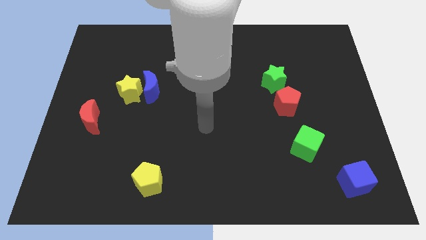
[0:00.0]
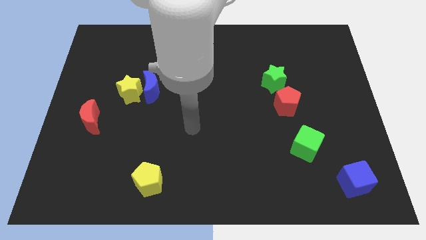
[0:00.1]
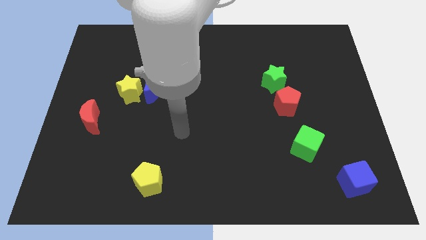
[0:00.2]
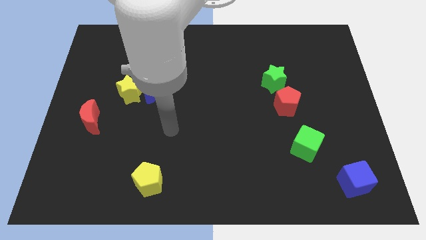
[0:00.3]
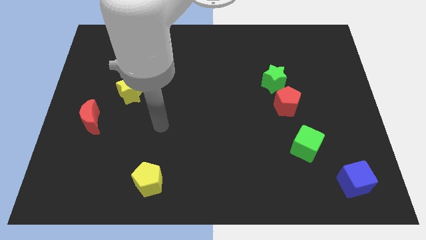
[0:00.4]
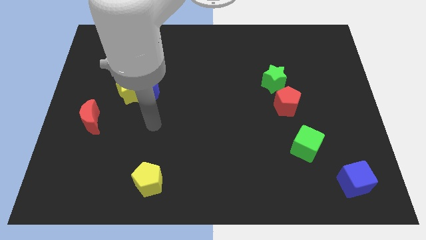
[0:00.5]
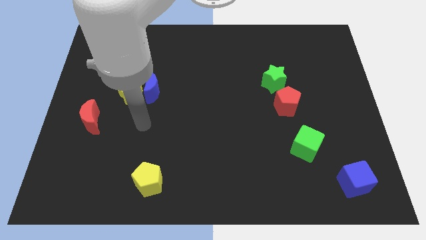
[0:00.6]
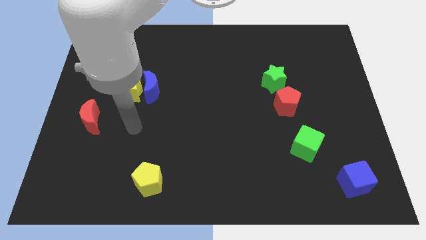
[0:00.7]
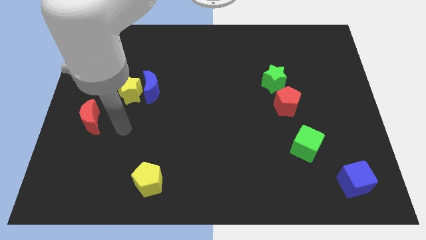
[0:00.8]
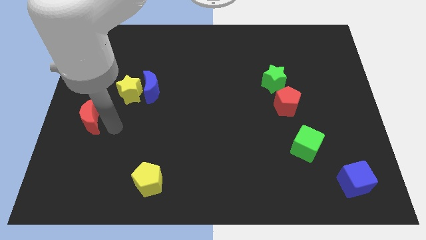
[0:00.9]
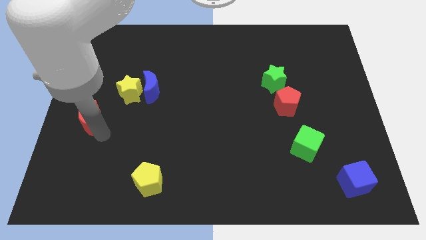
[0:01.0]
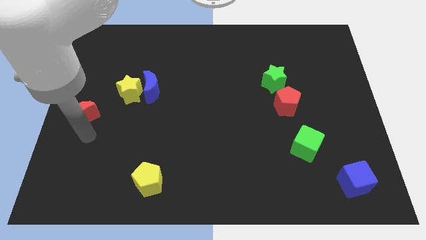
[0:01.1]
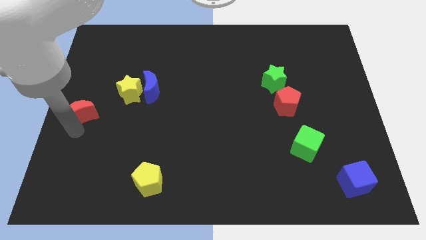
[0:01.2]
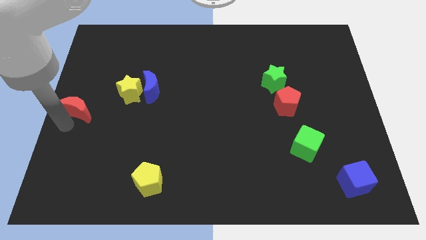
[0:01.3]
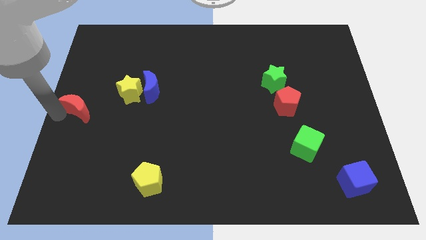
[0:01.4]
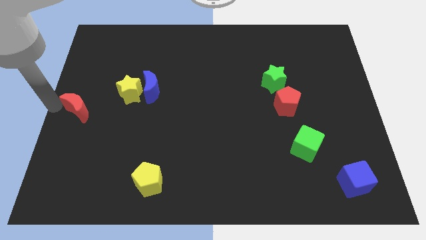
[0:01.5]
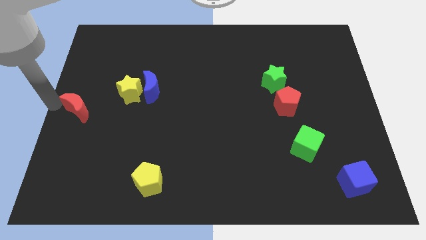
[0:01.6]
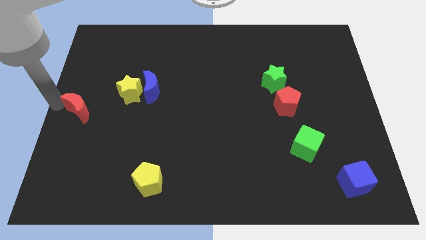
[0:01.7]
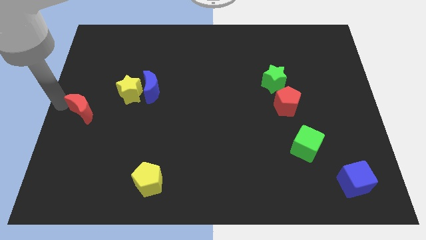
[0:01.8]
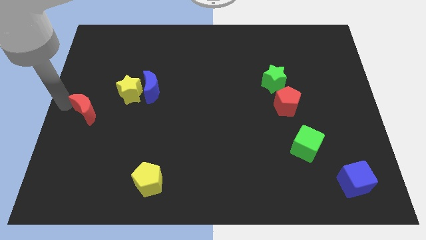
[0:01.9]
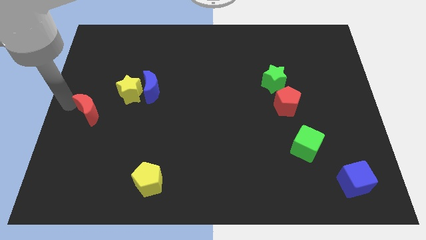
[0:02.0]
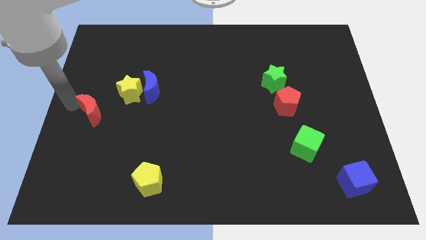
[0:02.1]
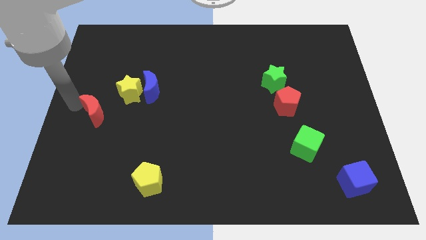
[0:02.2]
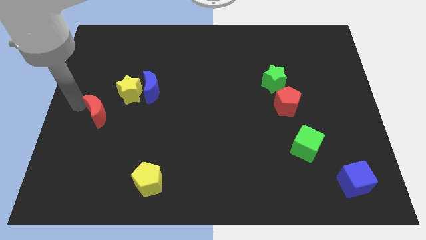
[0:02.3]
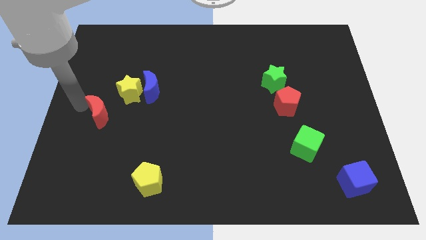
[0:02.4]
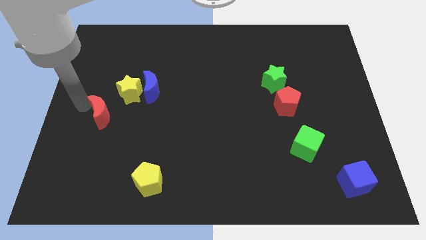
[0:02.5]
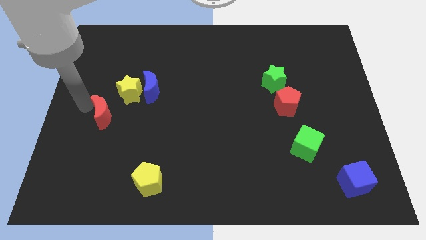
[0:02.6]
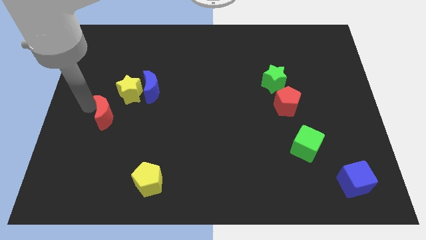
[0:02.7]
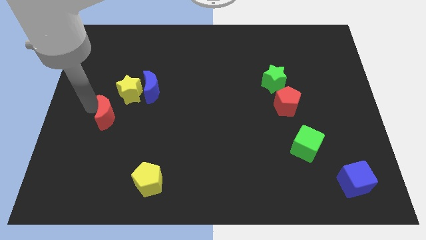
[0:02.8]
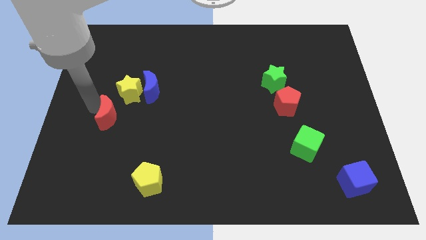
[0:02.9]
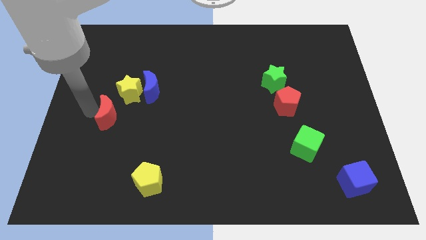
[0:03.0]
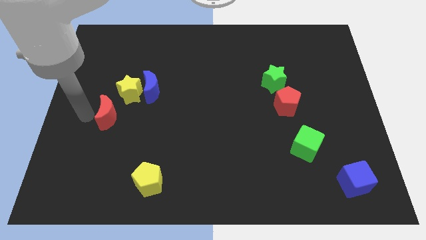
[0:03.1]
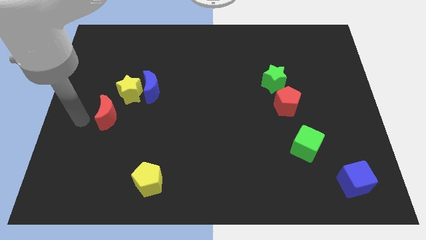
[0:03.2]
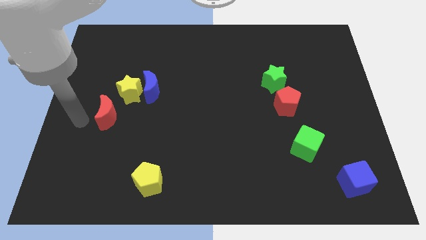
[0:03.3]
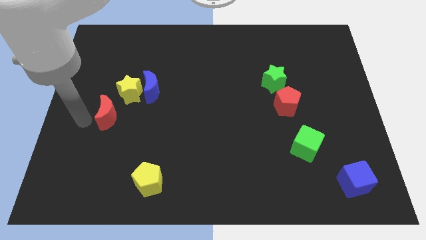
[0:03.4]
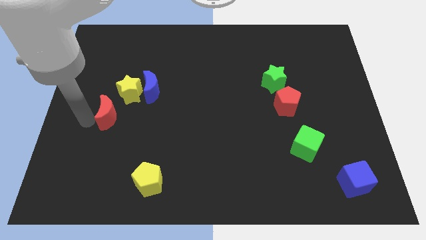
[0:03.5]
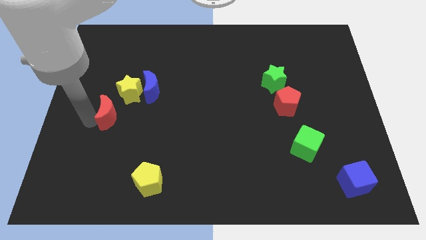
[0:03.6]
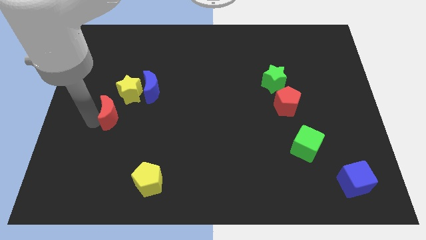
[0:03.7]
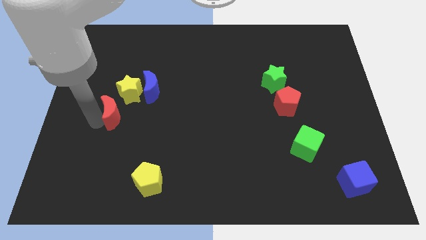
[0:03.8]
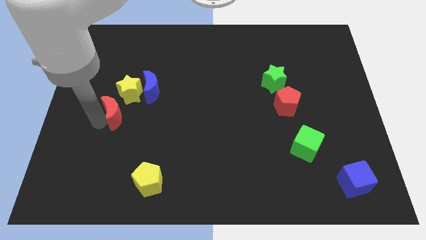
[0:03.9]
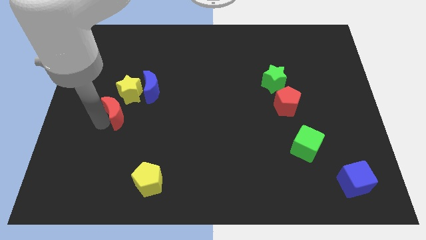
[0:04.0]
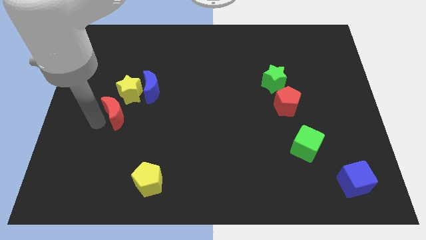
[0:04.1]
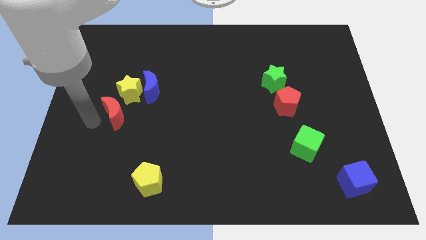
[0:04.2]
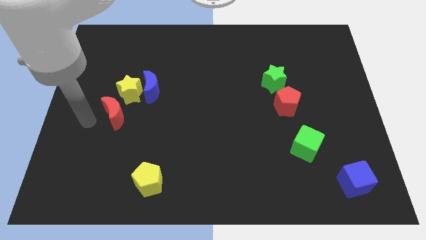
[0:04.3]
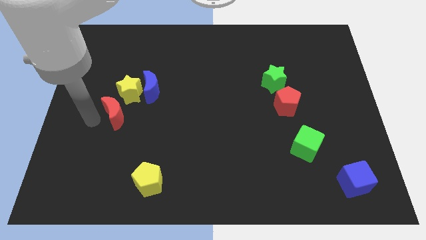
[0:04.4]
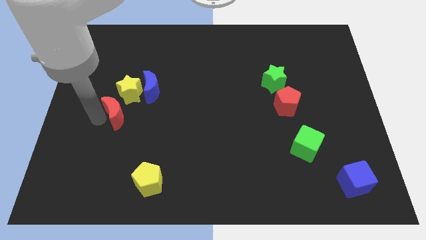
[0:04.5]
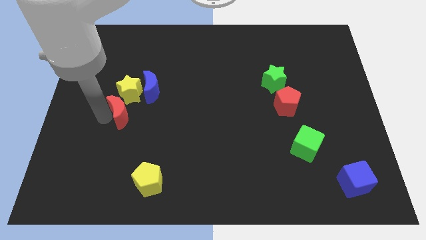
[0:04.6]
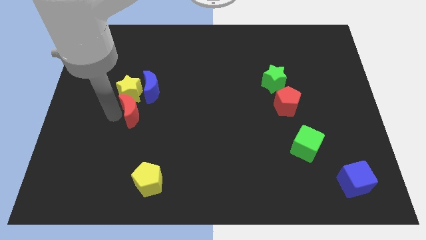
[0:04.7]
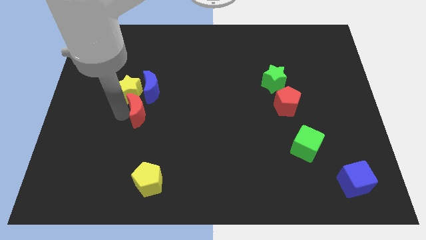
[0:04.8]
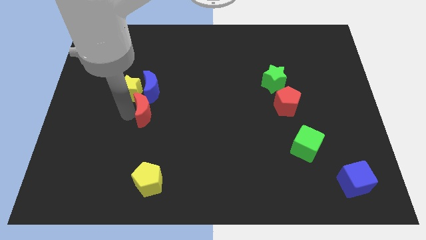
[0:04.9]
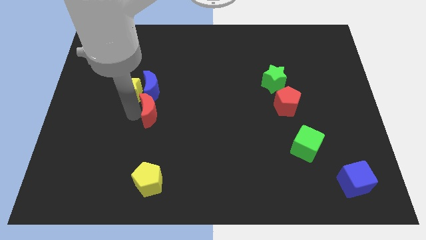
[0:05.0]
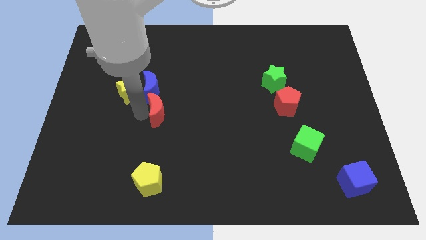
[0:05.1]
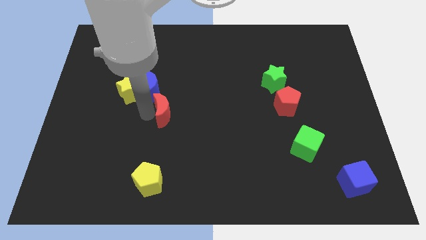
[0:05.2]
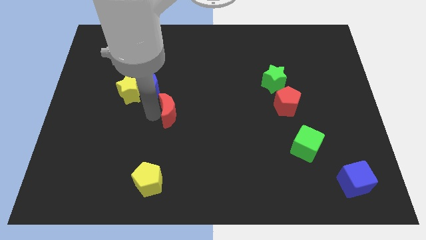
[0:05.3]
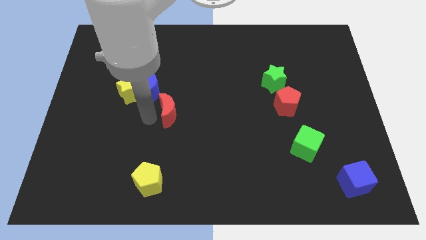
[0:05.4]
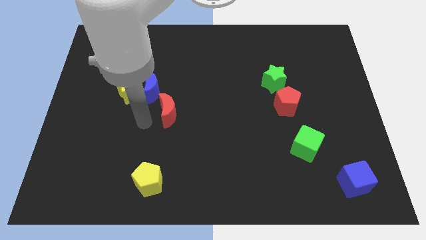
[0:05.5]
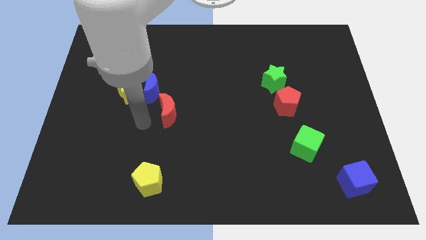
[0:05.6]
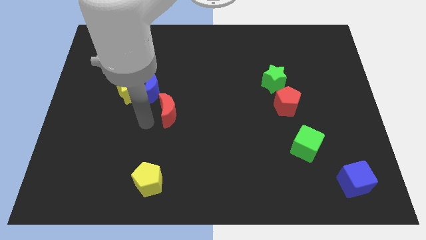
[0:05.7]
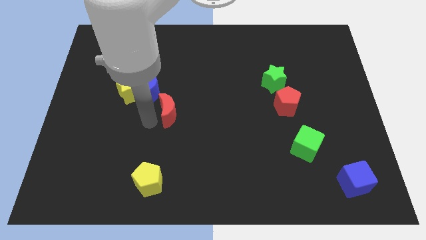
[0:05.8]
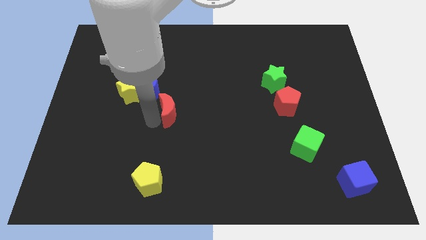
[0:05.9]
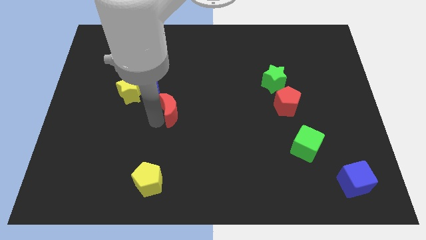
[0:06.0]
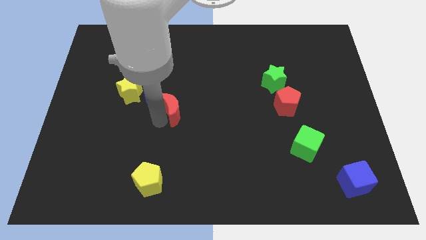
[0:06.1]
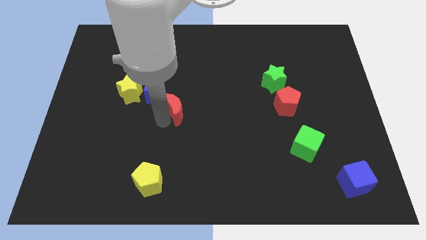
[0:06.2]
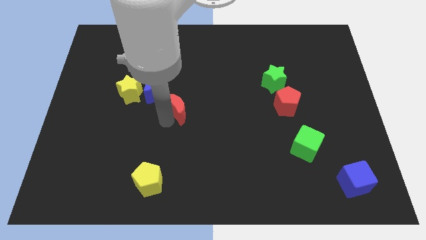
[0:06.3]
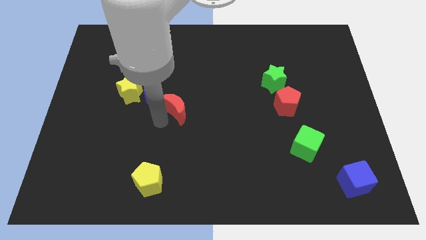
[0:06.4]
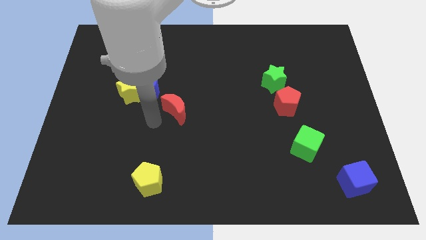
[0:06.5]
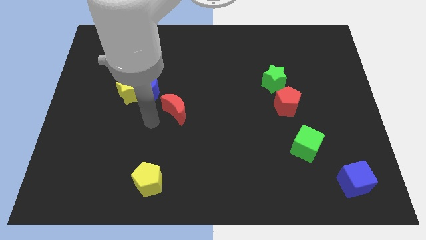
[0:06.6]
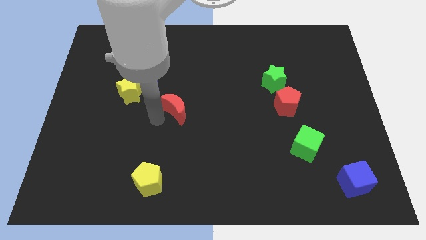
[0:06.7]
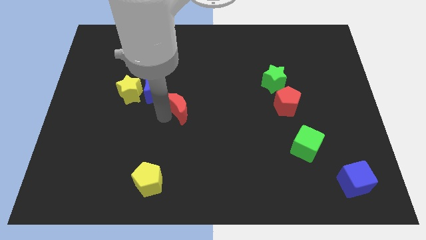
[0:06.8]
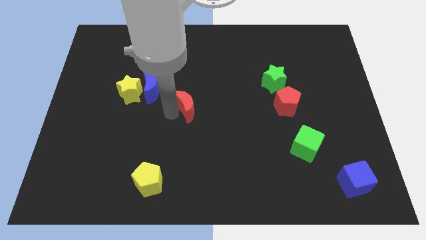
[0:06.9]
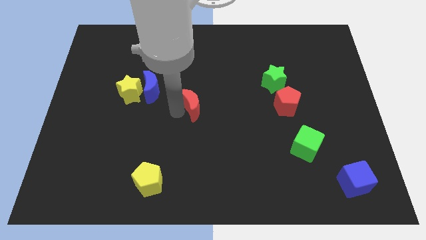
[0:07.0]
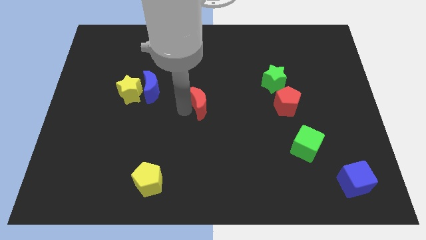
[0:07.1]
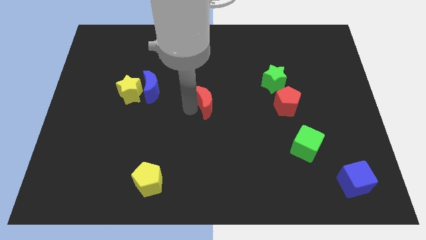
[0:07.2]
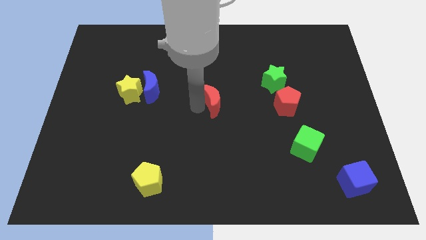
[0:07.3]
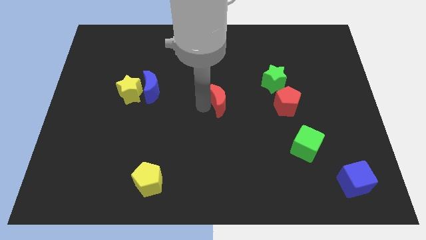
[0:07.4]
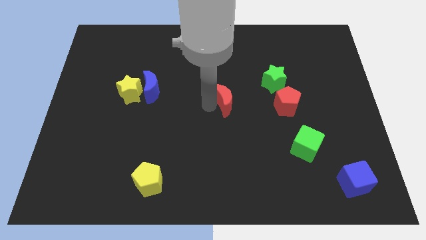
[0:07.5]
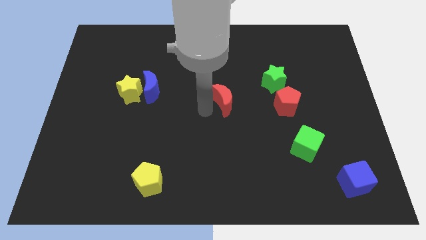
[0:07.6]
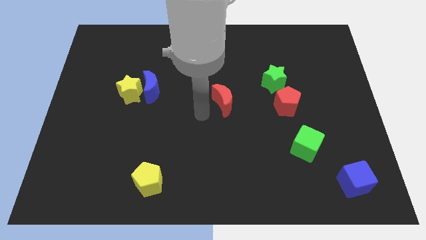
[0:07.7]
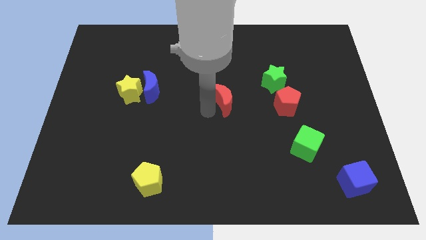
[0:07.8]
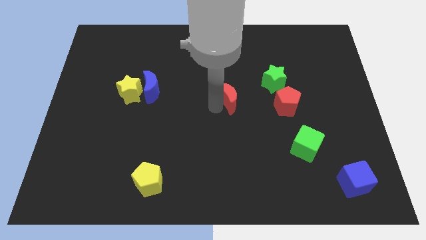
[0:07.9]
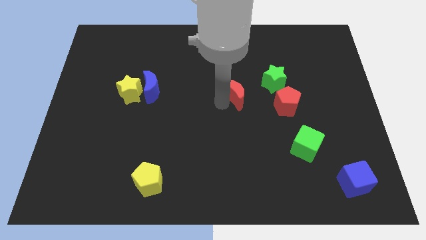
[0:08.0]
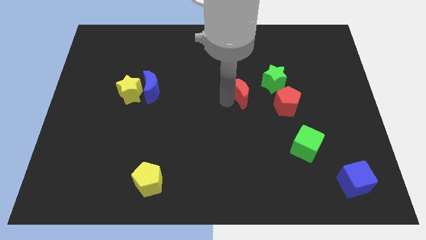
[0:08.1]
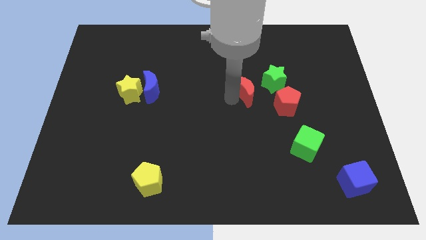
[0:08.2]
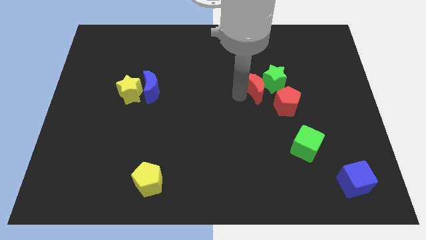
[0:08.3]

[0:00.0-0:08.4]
move the red moon to the green star

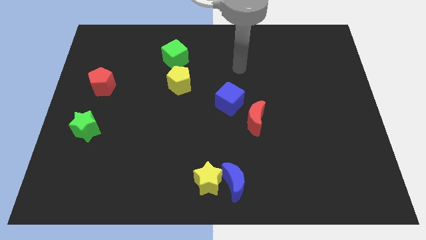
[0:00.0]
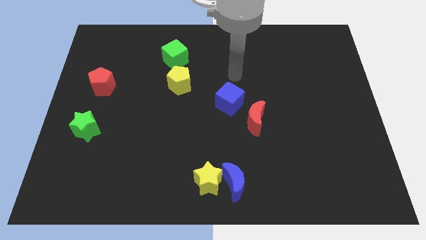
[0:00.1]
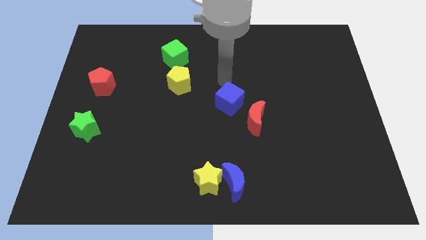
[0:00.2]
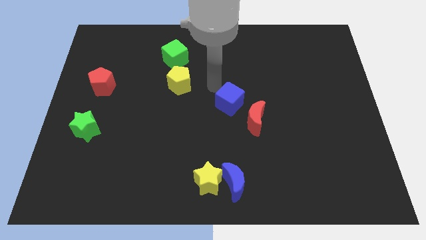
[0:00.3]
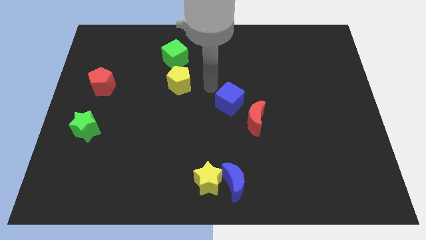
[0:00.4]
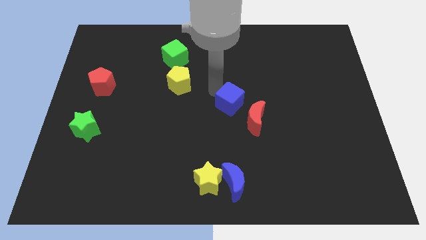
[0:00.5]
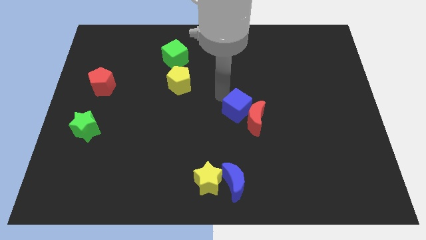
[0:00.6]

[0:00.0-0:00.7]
slide the blue cube to the red moon
